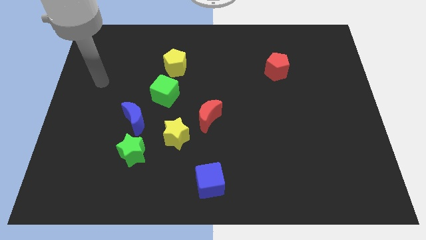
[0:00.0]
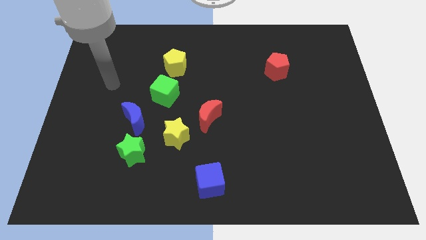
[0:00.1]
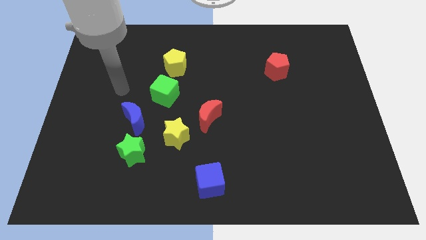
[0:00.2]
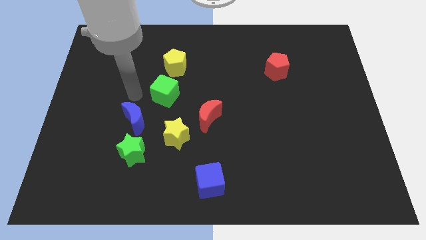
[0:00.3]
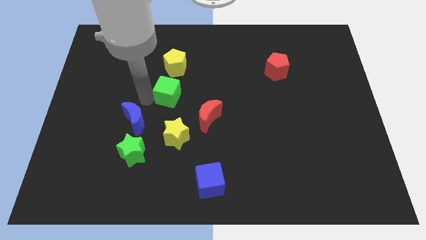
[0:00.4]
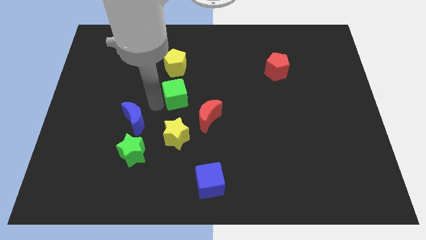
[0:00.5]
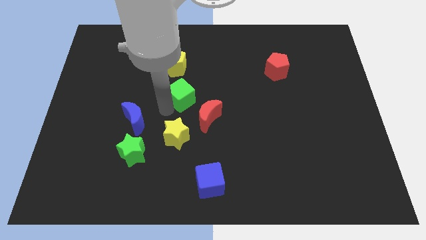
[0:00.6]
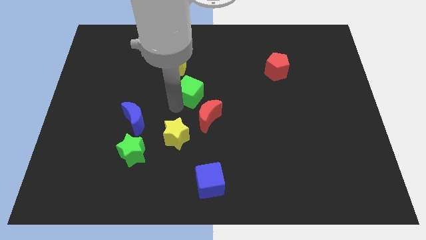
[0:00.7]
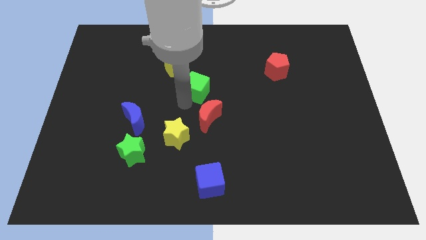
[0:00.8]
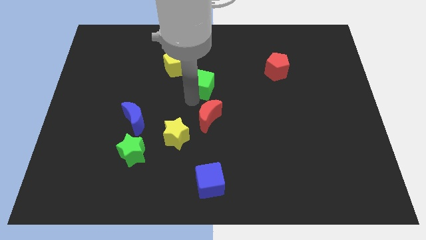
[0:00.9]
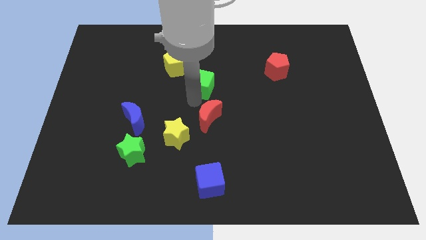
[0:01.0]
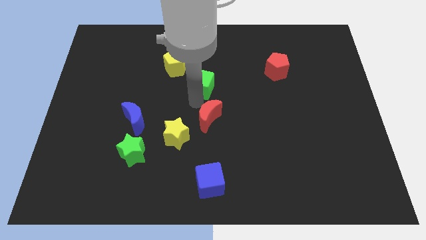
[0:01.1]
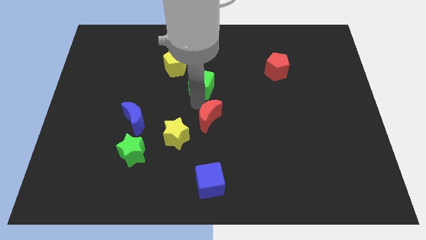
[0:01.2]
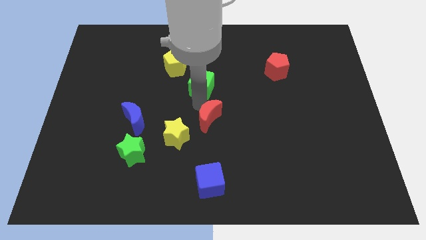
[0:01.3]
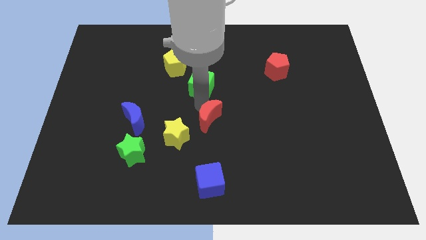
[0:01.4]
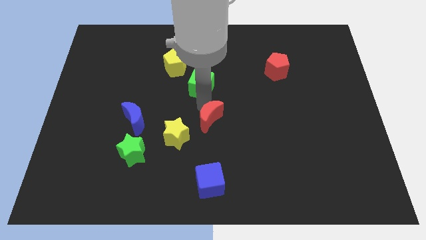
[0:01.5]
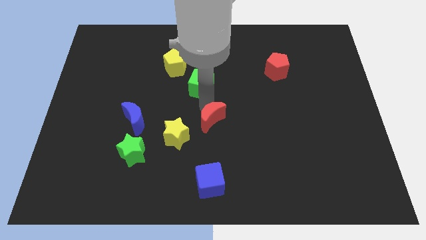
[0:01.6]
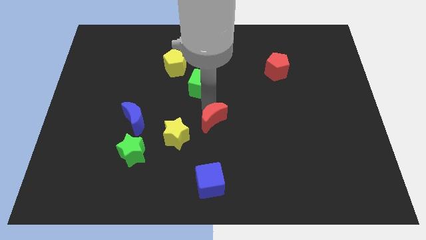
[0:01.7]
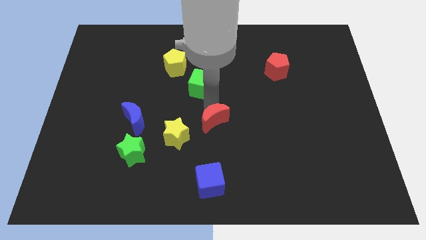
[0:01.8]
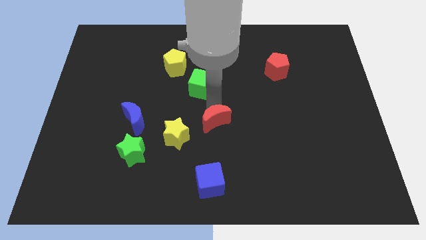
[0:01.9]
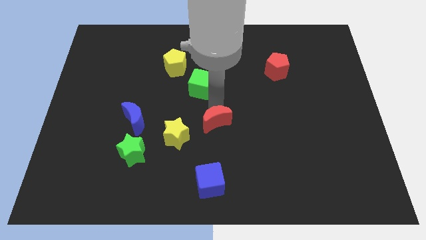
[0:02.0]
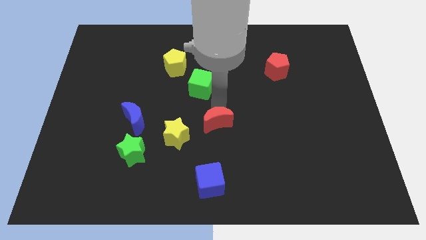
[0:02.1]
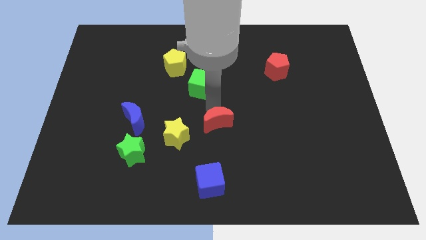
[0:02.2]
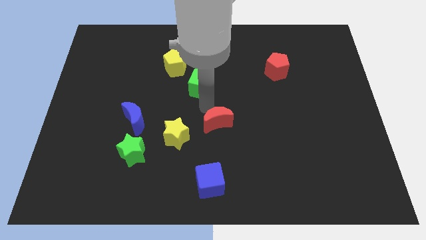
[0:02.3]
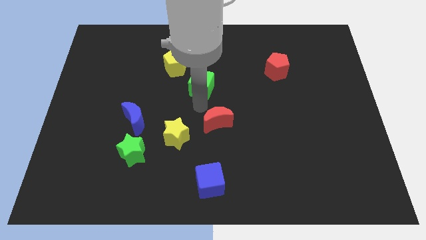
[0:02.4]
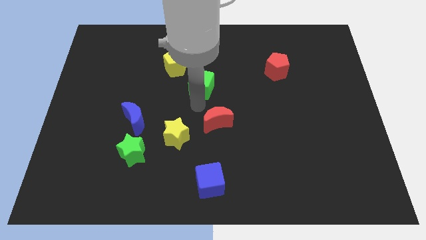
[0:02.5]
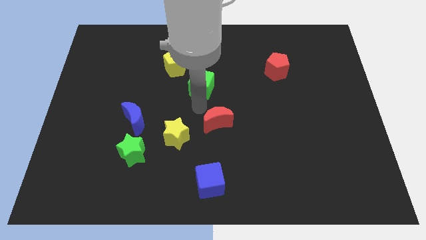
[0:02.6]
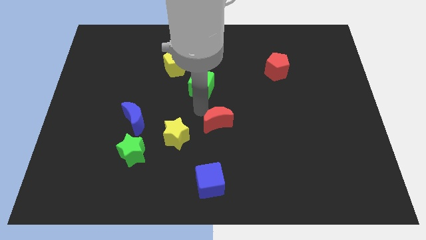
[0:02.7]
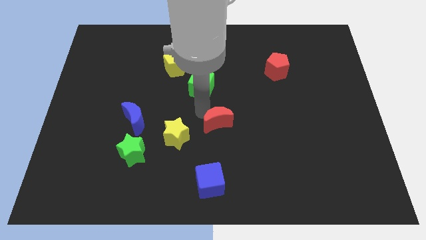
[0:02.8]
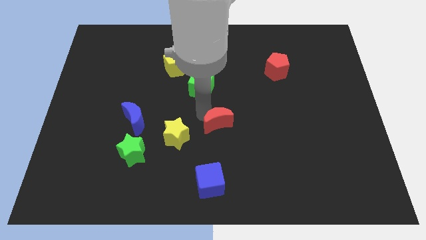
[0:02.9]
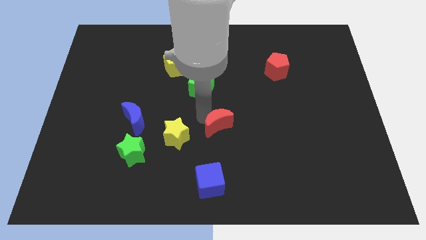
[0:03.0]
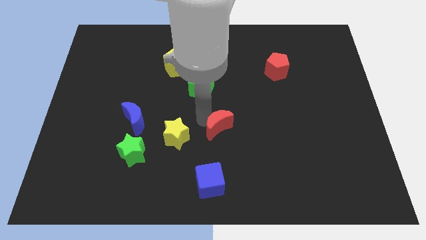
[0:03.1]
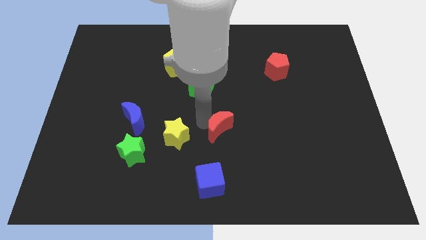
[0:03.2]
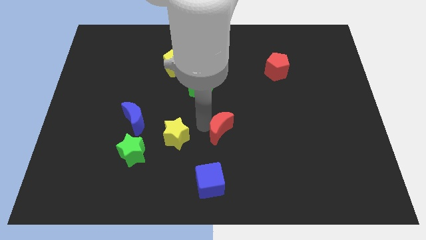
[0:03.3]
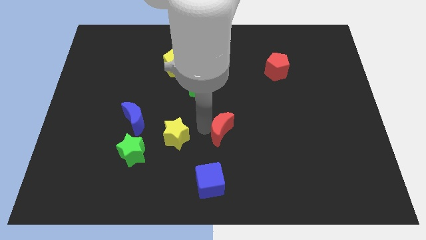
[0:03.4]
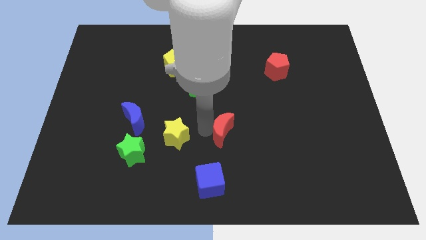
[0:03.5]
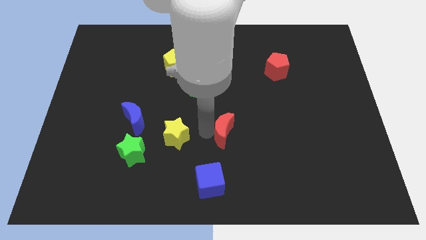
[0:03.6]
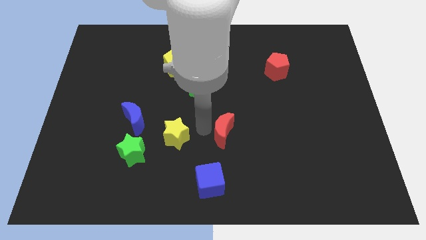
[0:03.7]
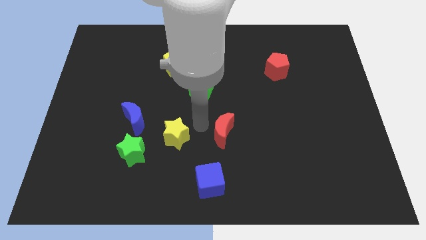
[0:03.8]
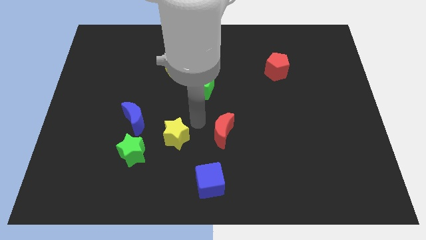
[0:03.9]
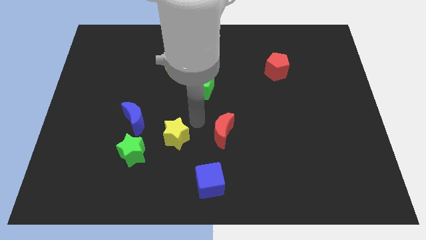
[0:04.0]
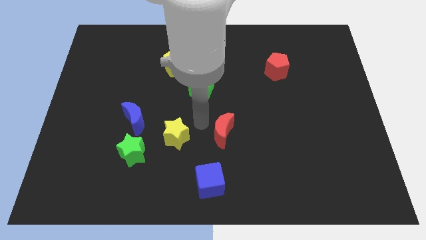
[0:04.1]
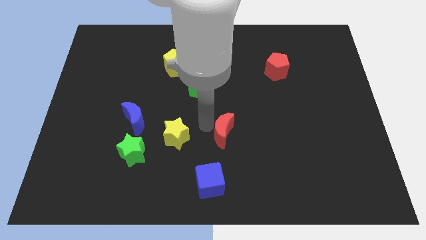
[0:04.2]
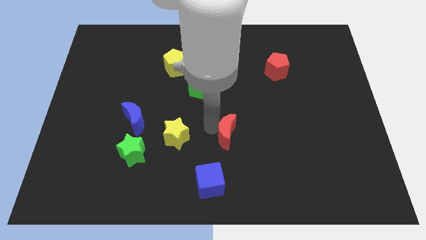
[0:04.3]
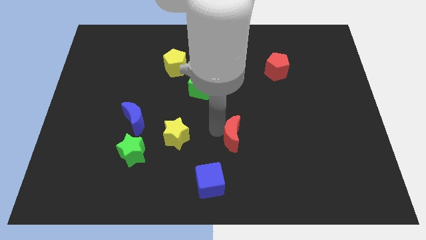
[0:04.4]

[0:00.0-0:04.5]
slide the red moon somewhat downwards and to the right diagonally

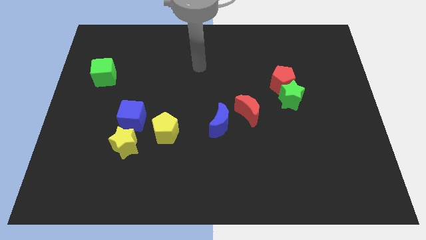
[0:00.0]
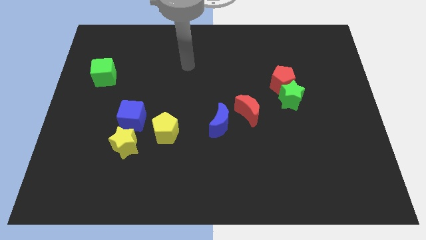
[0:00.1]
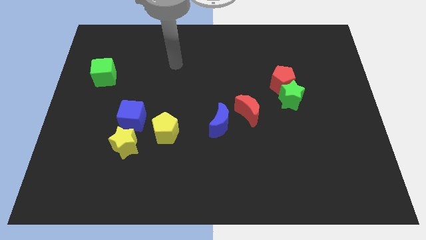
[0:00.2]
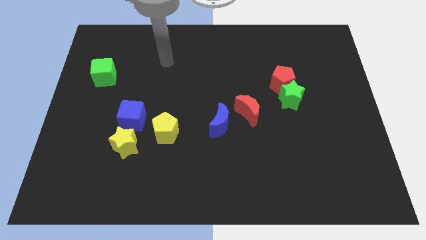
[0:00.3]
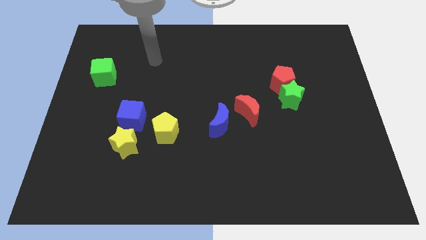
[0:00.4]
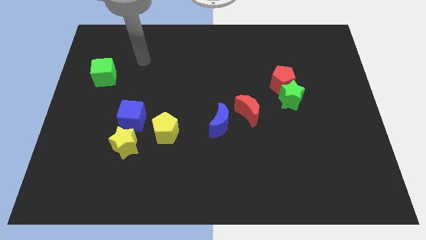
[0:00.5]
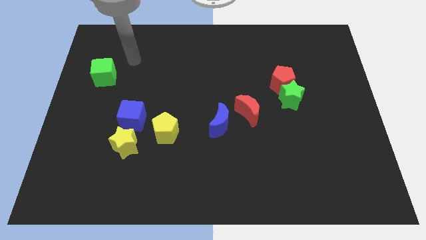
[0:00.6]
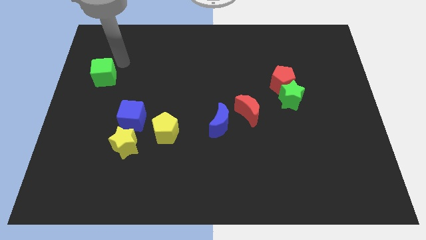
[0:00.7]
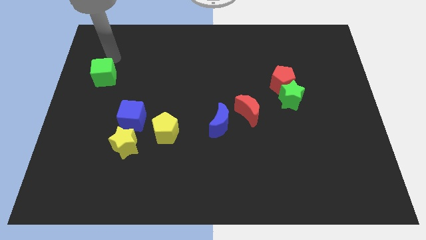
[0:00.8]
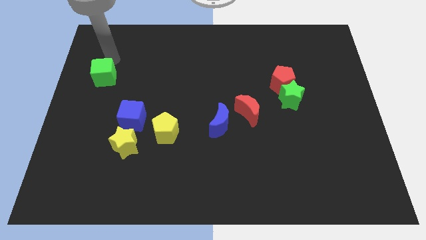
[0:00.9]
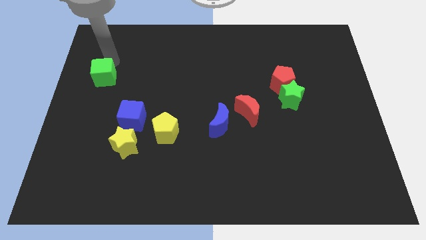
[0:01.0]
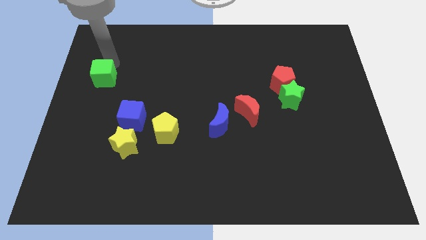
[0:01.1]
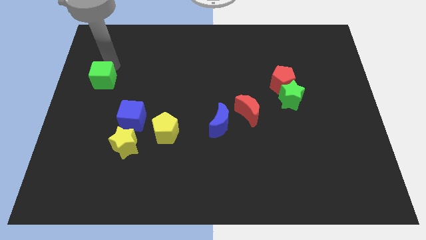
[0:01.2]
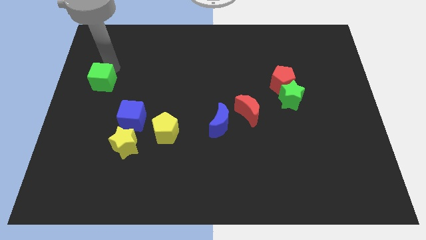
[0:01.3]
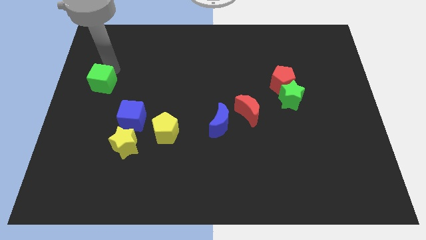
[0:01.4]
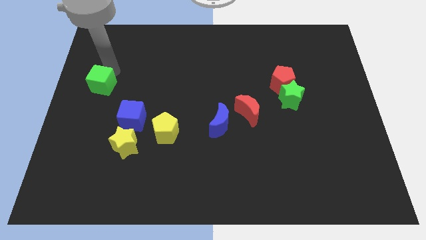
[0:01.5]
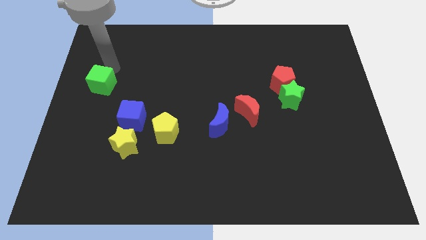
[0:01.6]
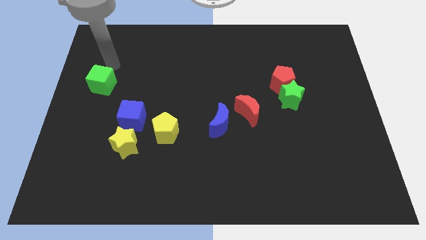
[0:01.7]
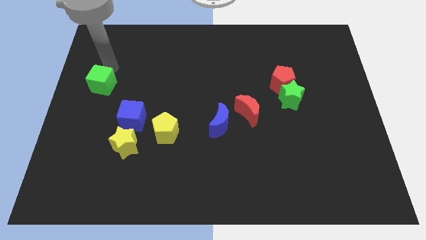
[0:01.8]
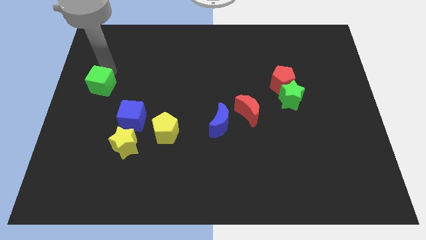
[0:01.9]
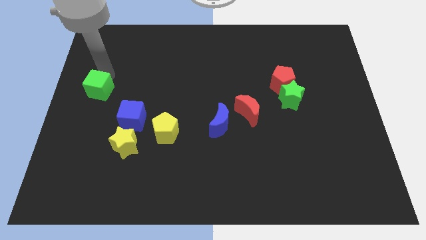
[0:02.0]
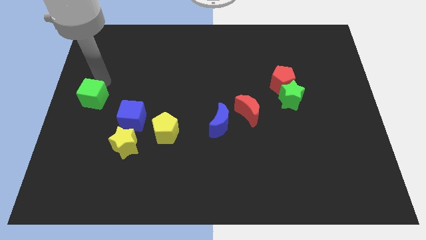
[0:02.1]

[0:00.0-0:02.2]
move the green cube a little bit downwards

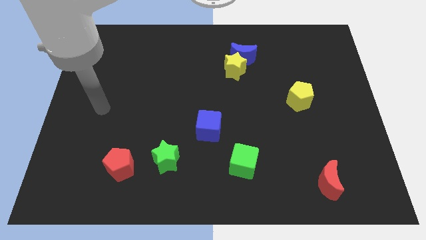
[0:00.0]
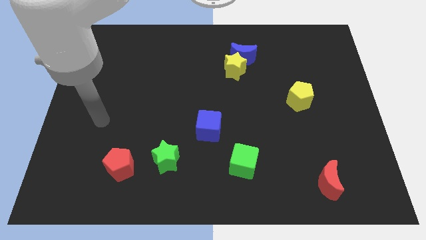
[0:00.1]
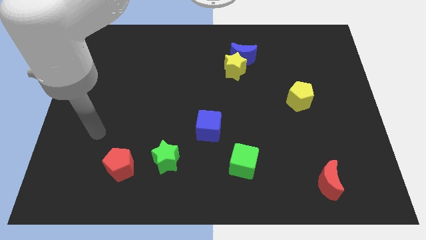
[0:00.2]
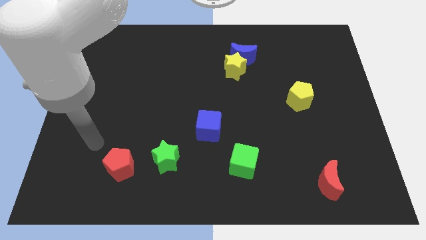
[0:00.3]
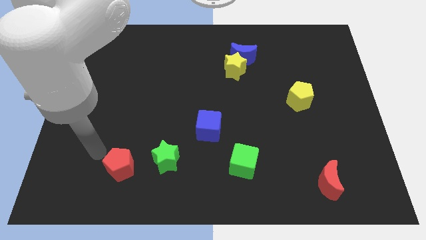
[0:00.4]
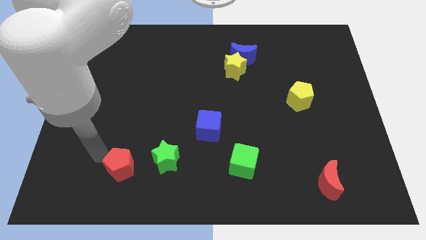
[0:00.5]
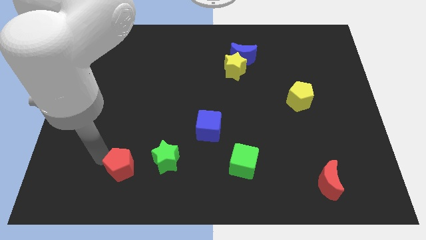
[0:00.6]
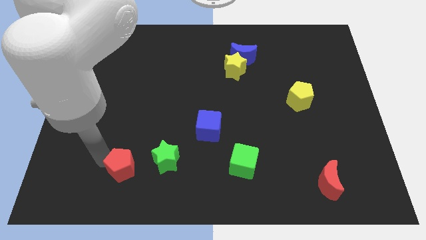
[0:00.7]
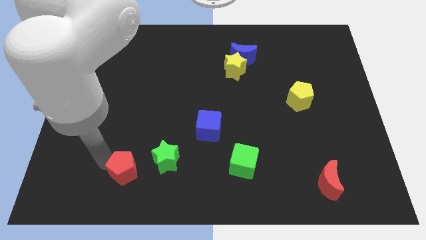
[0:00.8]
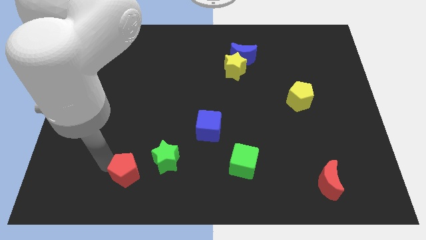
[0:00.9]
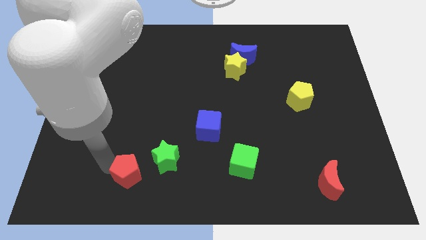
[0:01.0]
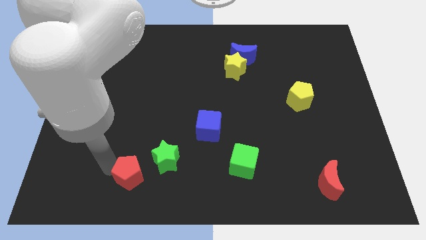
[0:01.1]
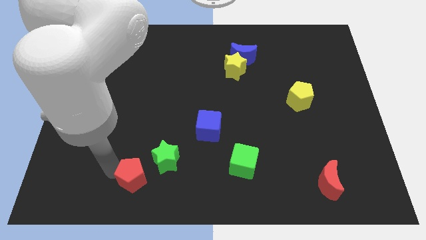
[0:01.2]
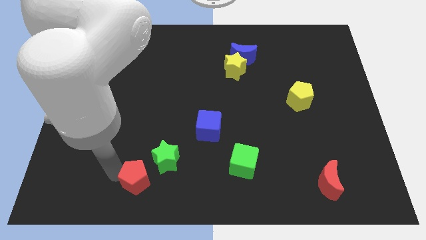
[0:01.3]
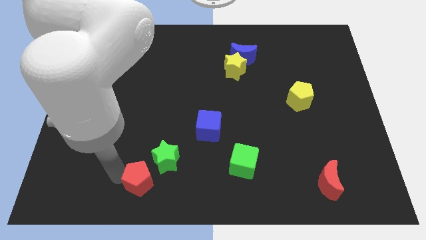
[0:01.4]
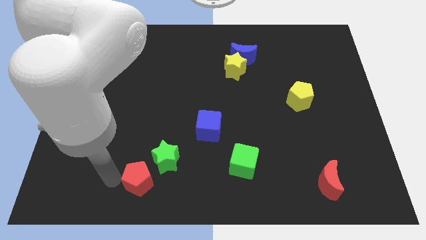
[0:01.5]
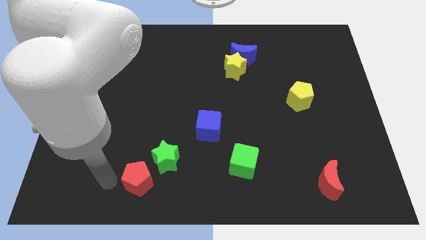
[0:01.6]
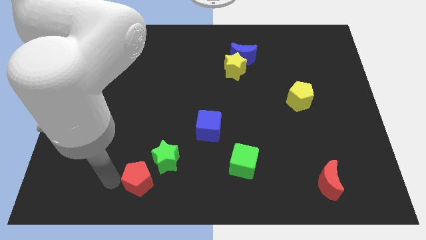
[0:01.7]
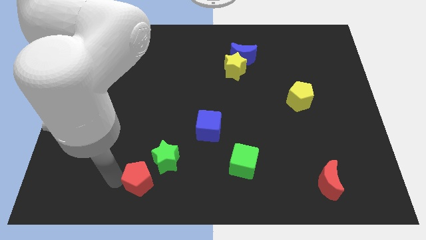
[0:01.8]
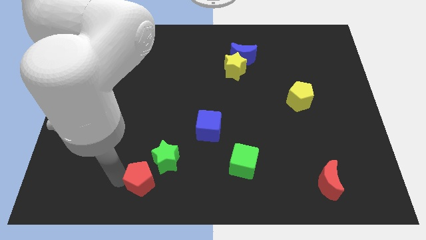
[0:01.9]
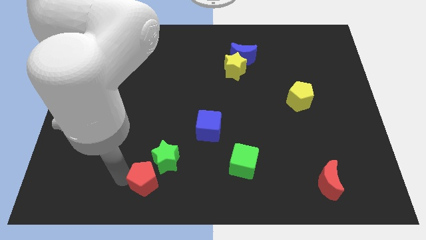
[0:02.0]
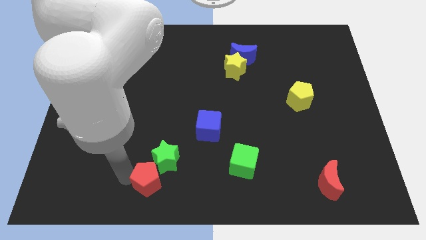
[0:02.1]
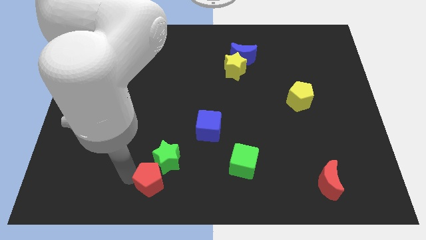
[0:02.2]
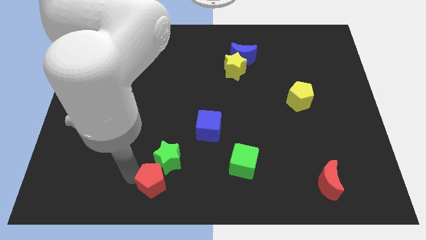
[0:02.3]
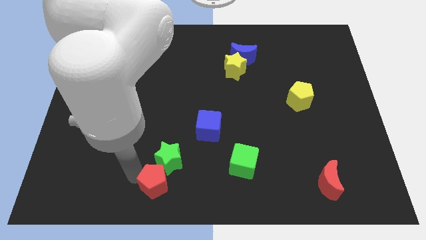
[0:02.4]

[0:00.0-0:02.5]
slightly move the red pentagon to the right
